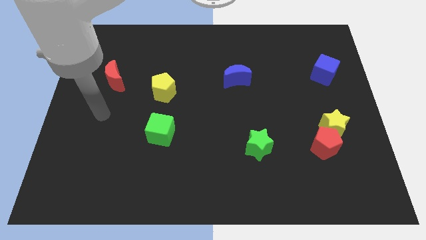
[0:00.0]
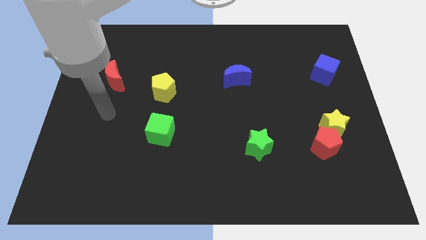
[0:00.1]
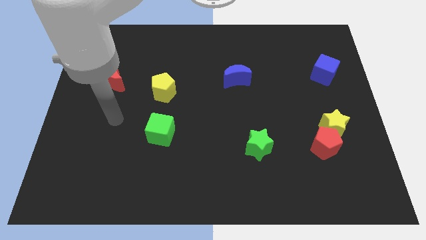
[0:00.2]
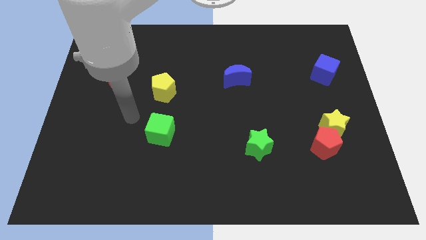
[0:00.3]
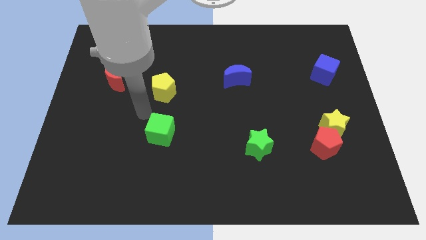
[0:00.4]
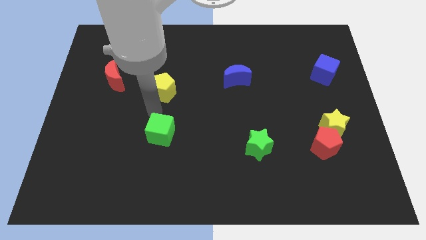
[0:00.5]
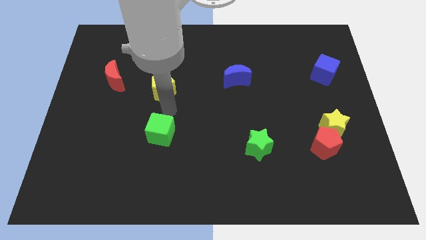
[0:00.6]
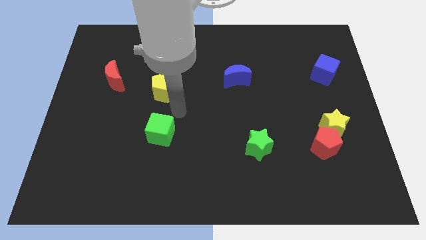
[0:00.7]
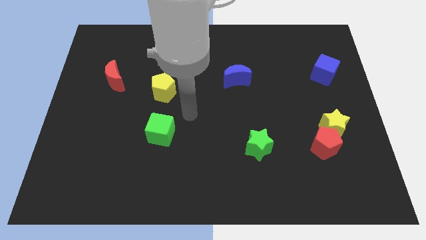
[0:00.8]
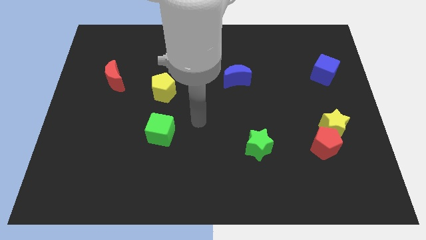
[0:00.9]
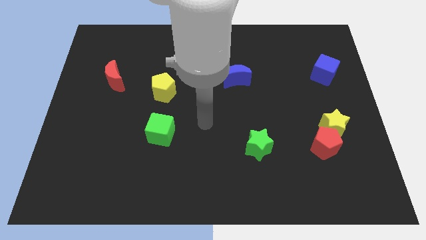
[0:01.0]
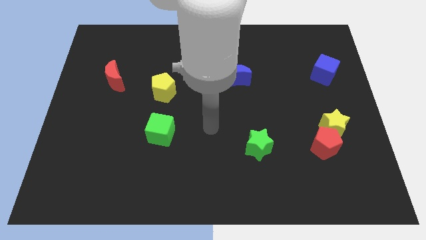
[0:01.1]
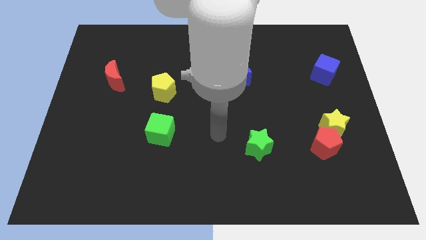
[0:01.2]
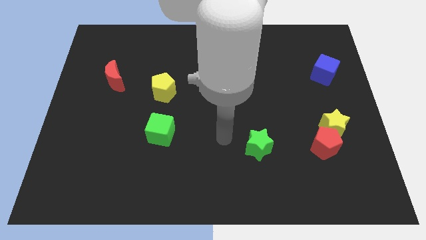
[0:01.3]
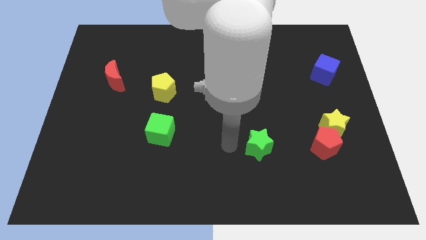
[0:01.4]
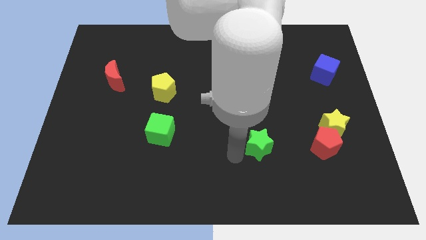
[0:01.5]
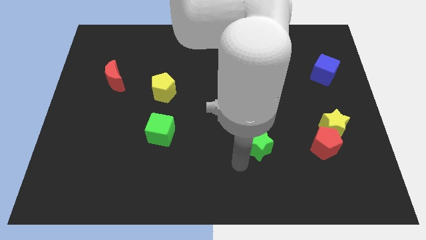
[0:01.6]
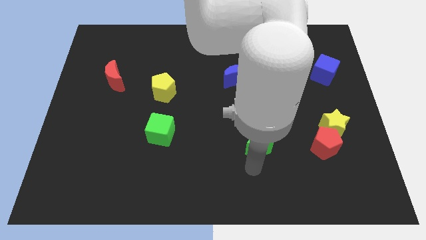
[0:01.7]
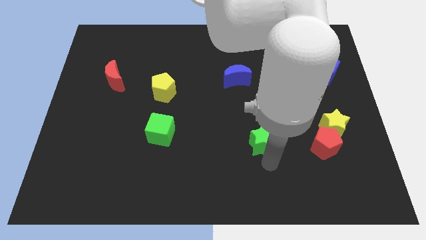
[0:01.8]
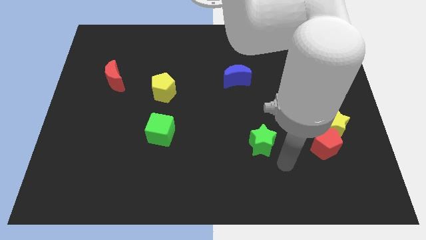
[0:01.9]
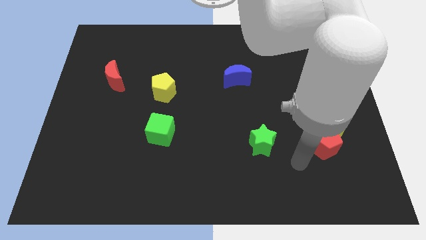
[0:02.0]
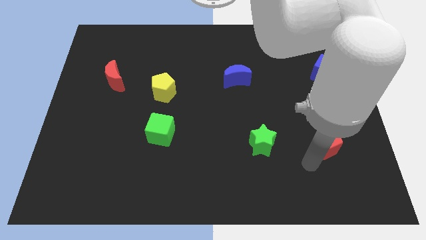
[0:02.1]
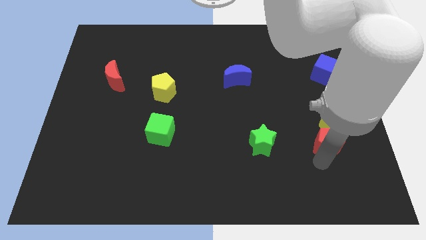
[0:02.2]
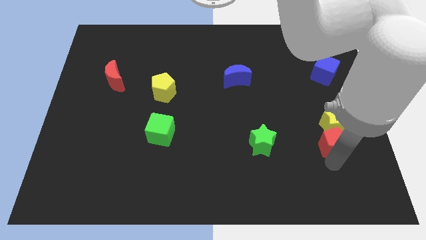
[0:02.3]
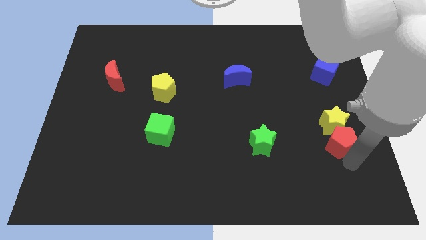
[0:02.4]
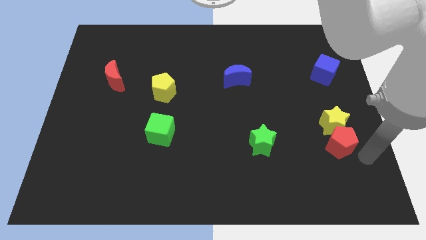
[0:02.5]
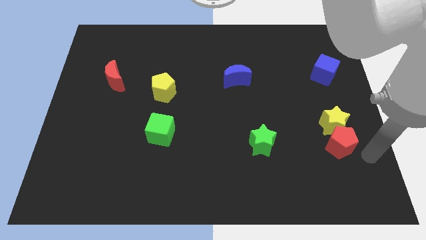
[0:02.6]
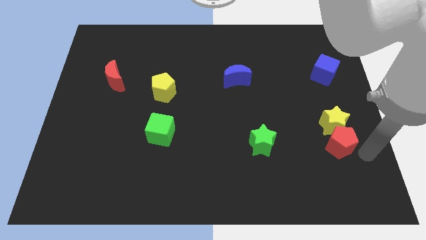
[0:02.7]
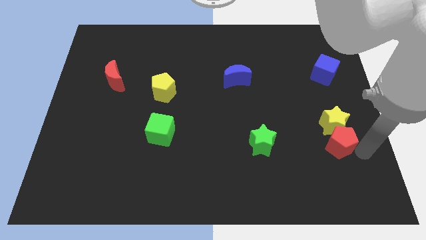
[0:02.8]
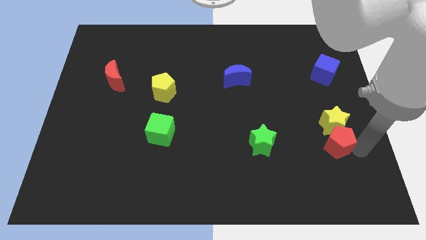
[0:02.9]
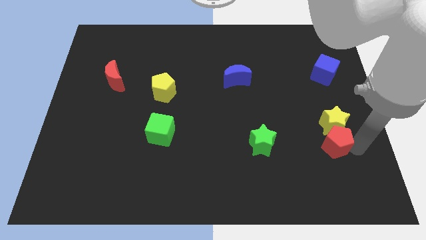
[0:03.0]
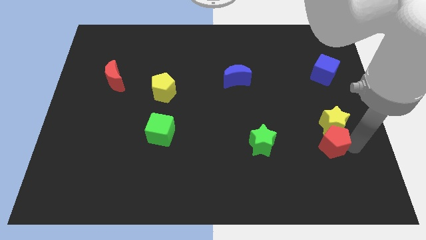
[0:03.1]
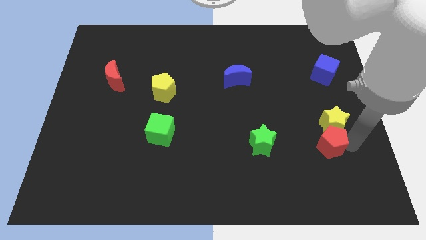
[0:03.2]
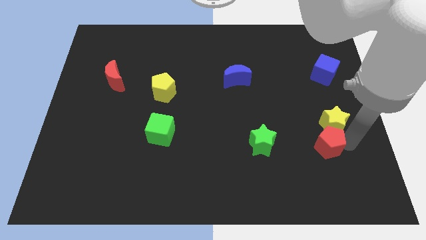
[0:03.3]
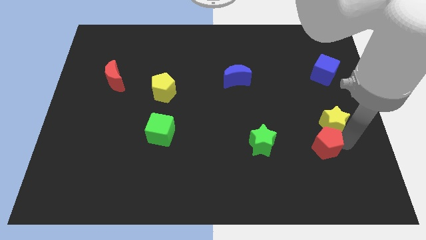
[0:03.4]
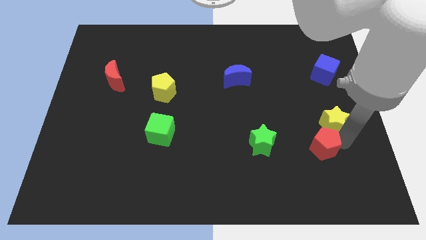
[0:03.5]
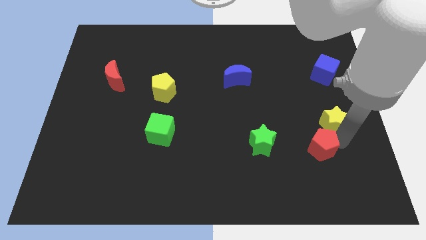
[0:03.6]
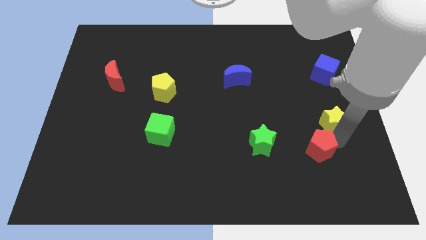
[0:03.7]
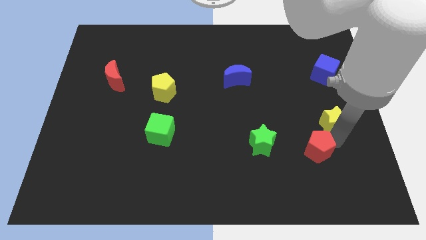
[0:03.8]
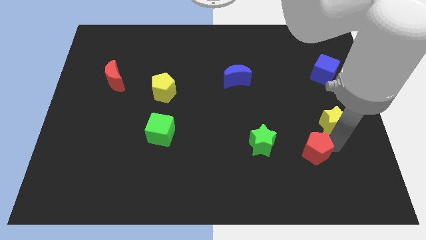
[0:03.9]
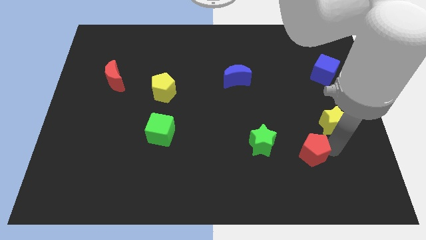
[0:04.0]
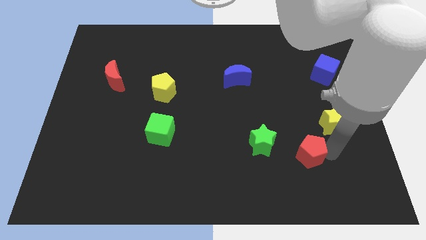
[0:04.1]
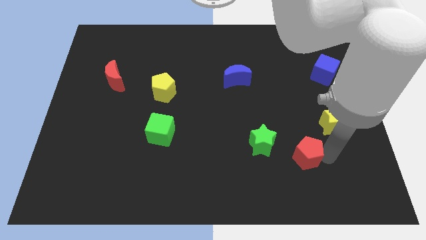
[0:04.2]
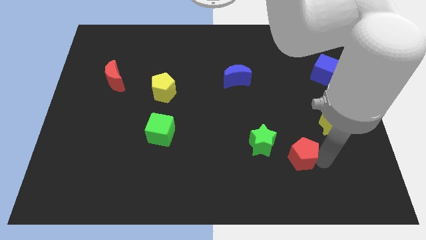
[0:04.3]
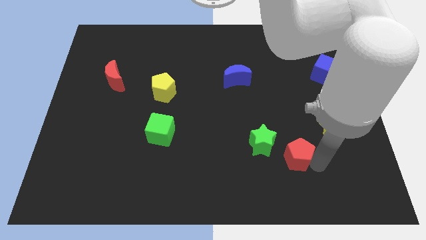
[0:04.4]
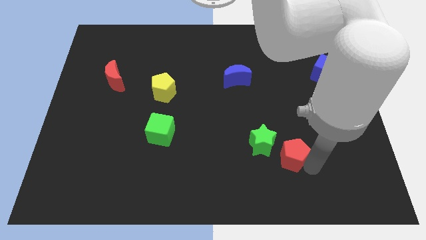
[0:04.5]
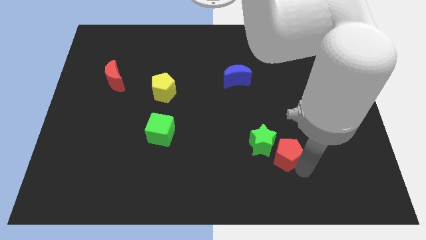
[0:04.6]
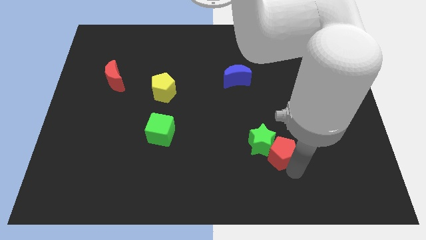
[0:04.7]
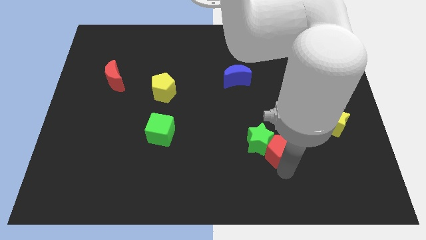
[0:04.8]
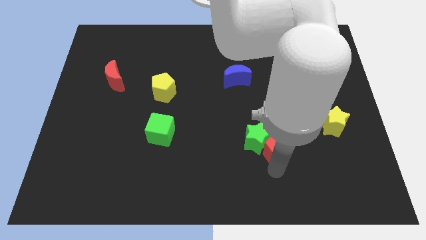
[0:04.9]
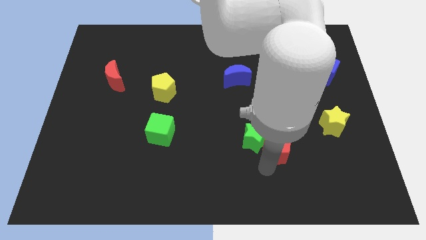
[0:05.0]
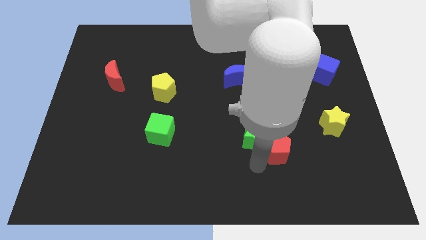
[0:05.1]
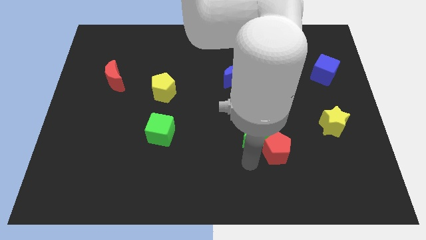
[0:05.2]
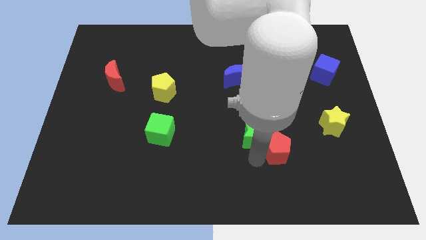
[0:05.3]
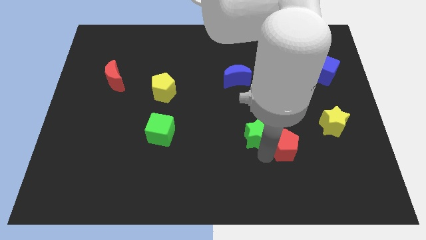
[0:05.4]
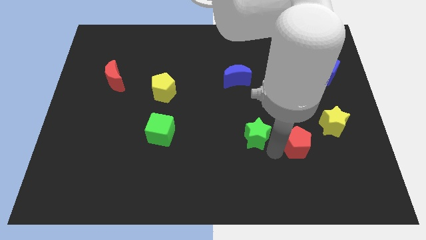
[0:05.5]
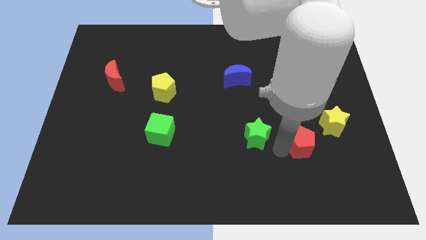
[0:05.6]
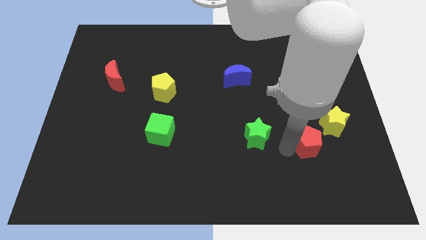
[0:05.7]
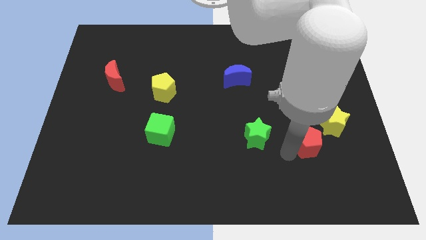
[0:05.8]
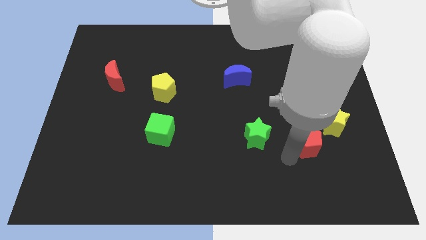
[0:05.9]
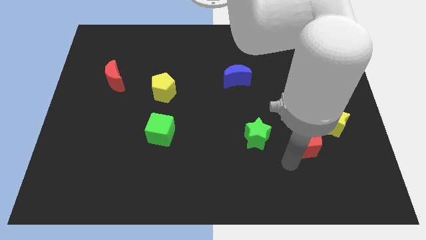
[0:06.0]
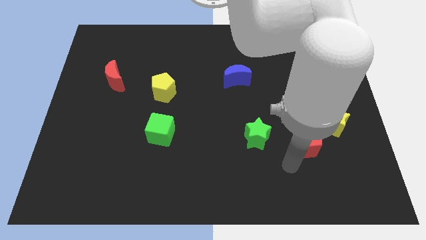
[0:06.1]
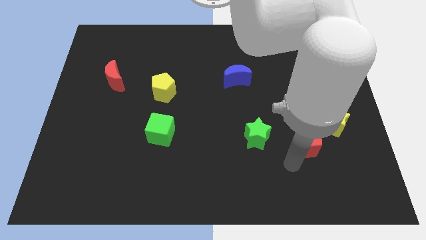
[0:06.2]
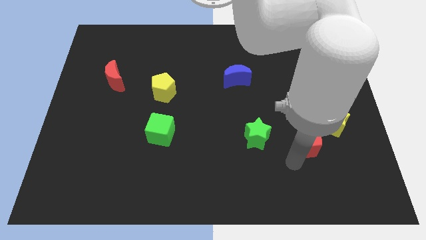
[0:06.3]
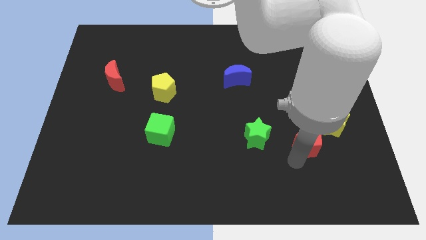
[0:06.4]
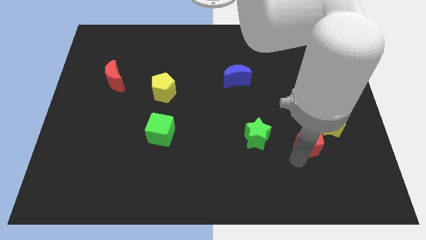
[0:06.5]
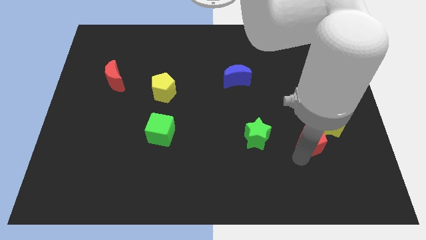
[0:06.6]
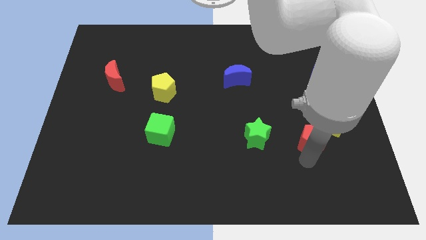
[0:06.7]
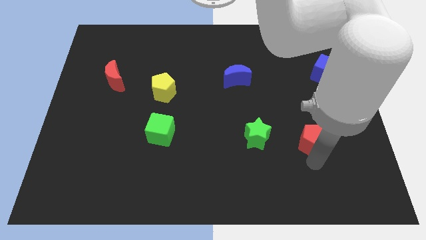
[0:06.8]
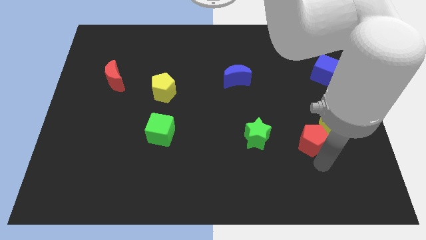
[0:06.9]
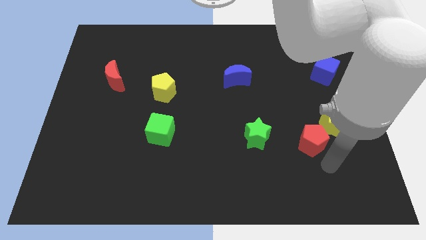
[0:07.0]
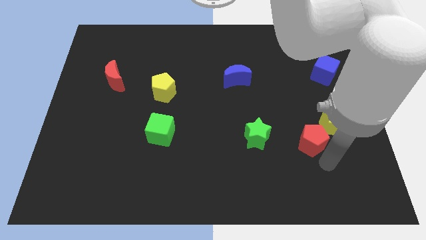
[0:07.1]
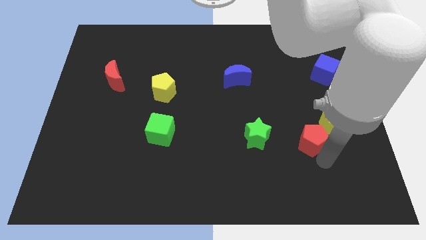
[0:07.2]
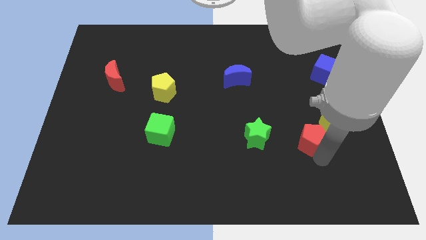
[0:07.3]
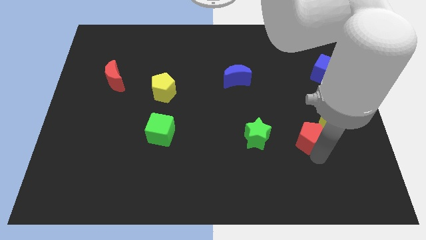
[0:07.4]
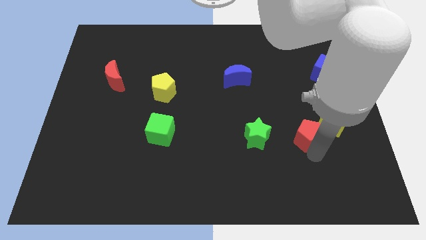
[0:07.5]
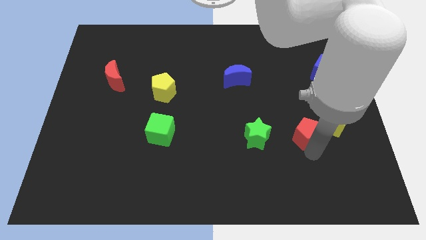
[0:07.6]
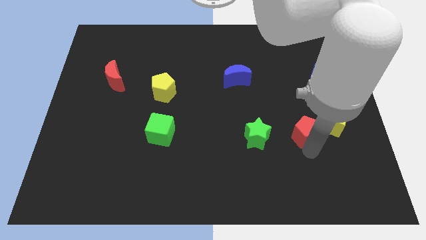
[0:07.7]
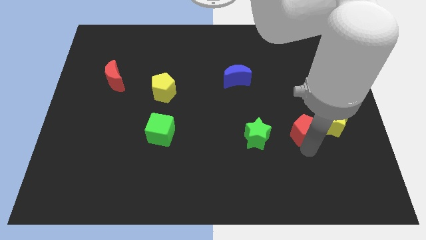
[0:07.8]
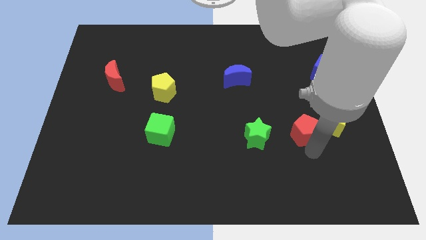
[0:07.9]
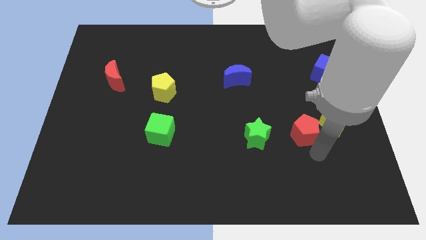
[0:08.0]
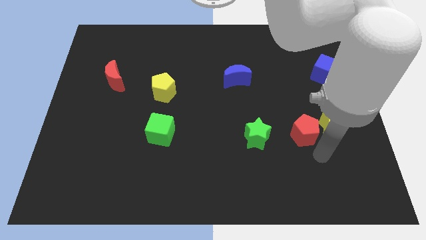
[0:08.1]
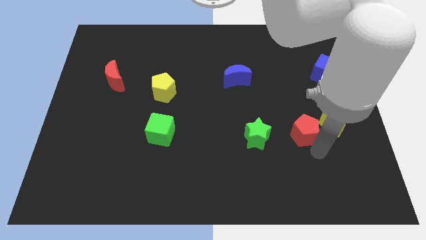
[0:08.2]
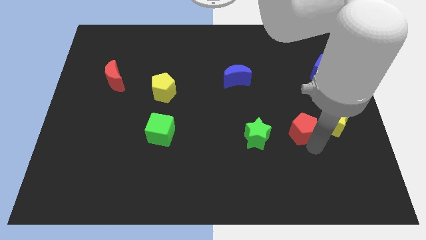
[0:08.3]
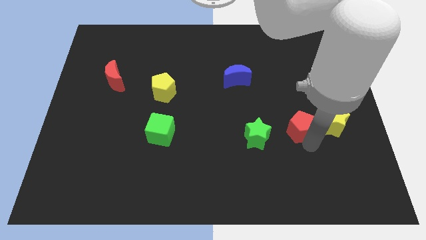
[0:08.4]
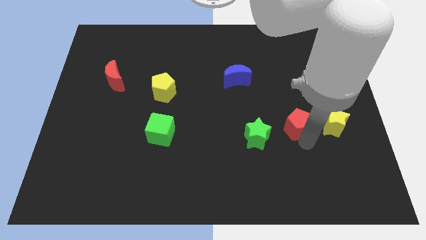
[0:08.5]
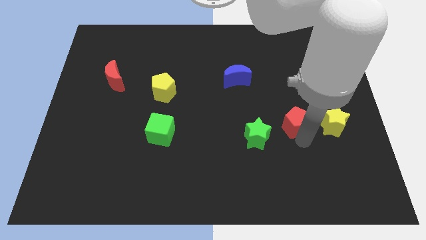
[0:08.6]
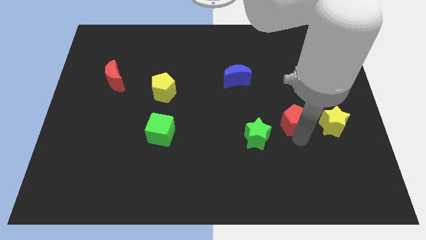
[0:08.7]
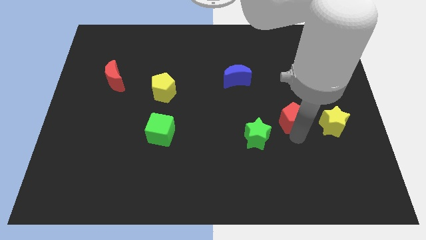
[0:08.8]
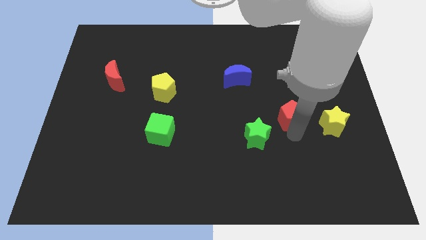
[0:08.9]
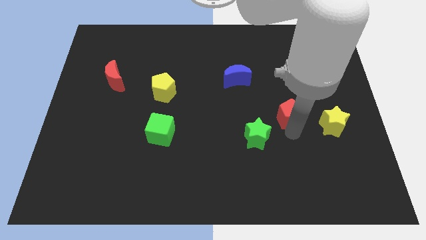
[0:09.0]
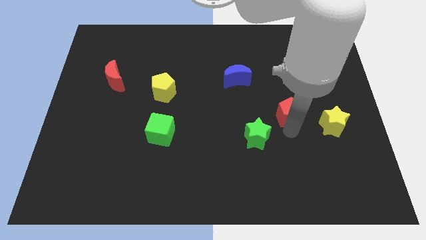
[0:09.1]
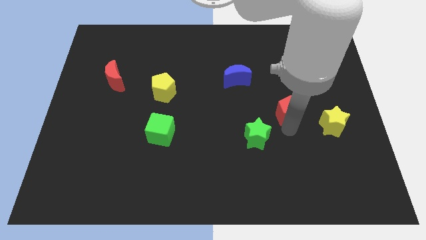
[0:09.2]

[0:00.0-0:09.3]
slightly push the red pentagon upwards
